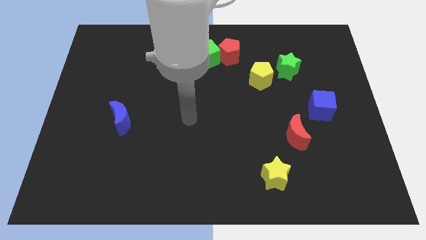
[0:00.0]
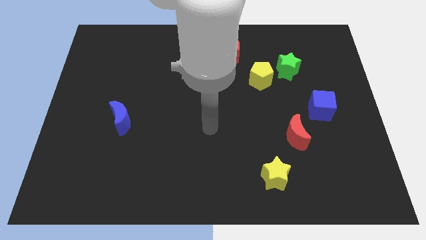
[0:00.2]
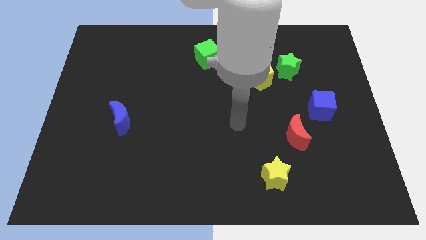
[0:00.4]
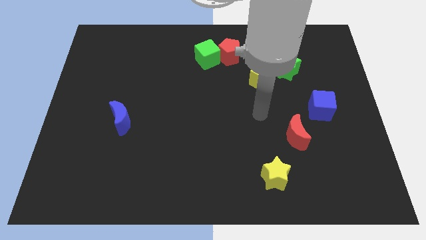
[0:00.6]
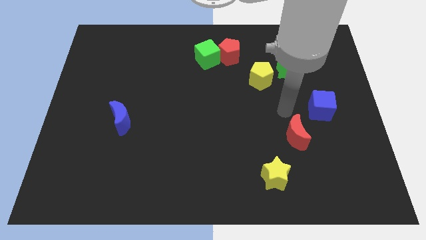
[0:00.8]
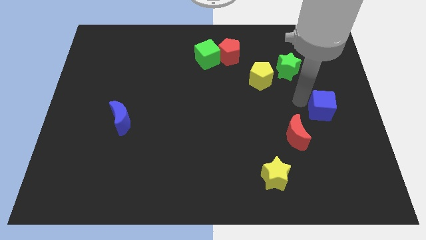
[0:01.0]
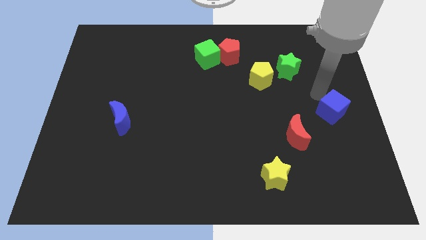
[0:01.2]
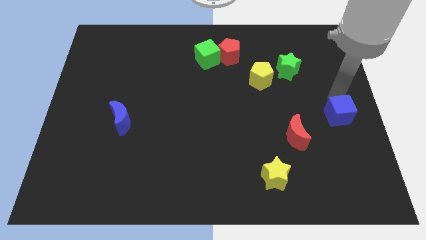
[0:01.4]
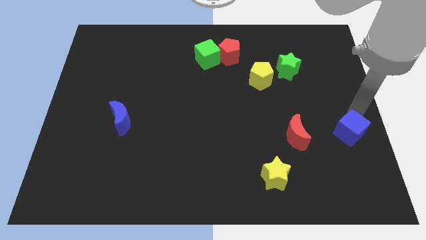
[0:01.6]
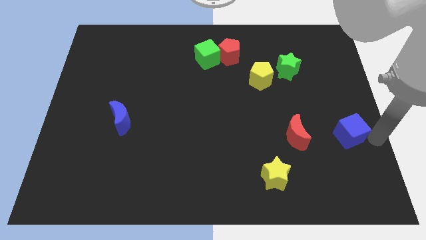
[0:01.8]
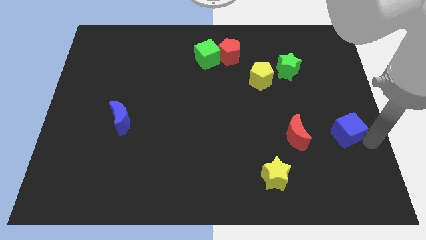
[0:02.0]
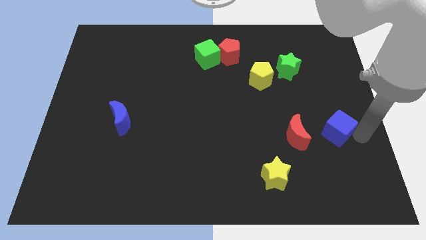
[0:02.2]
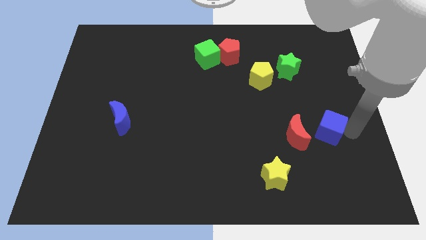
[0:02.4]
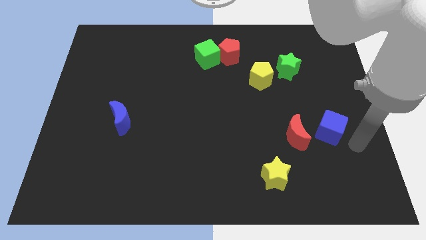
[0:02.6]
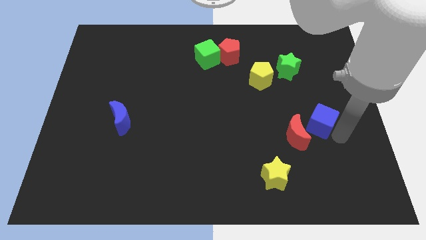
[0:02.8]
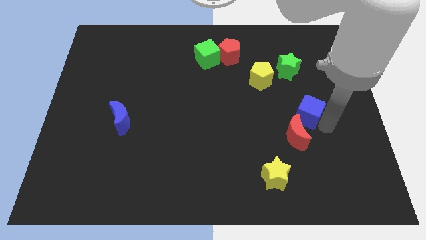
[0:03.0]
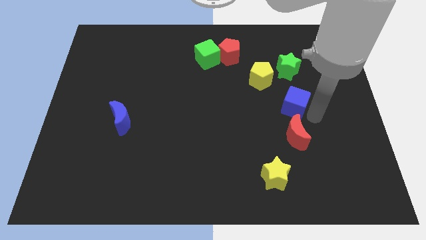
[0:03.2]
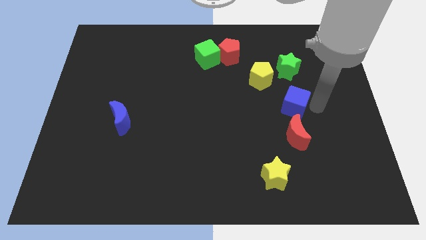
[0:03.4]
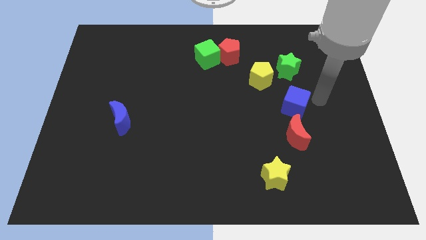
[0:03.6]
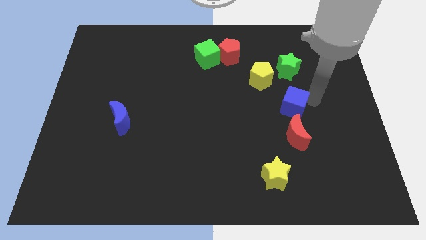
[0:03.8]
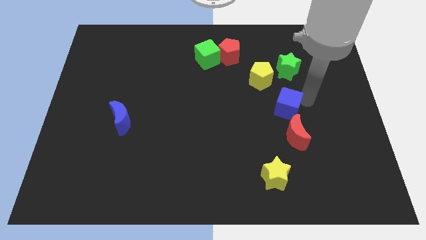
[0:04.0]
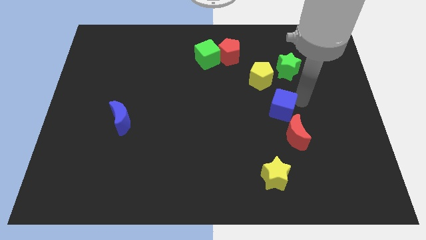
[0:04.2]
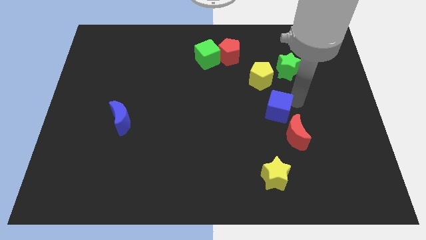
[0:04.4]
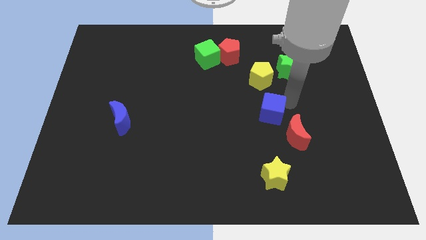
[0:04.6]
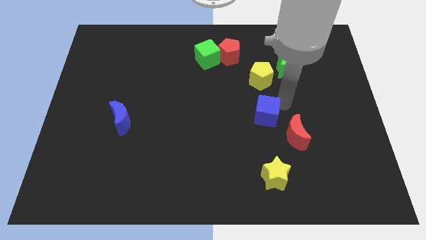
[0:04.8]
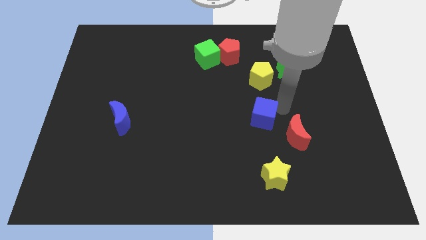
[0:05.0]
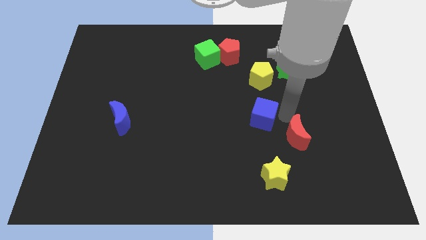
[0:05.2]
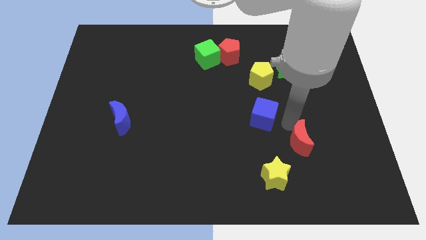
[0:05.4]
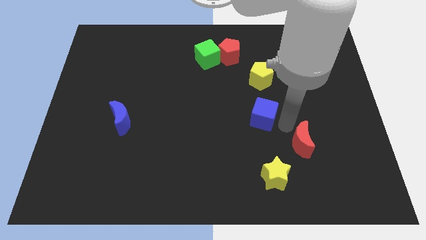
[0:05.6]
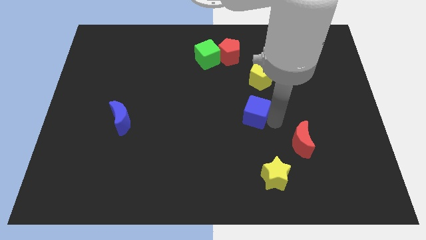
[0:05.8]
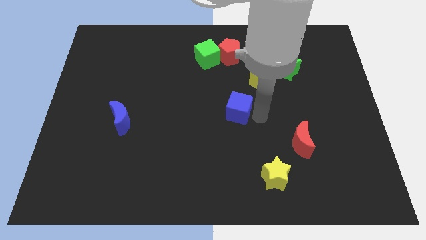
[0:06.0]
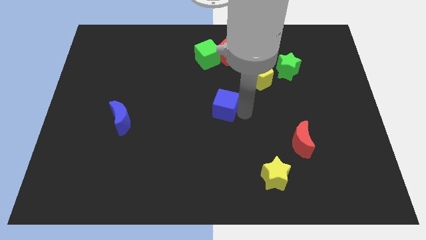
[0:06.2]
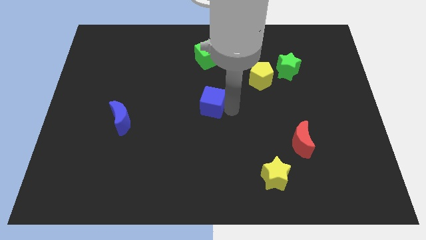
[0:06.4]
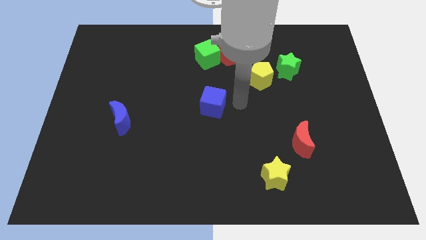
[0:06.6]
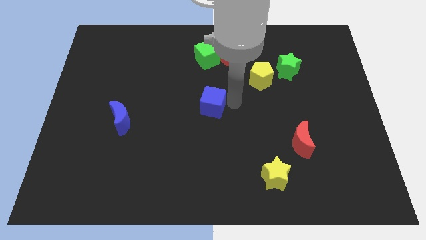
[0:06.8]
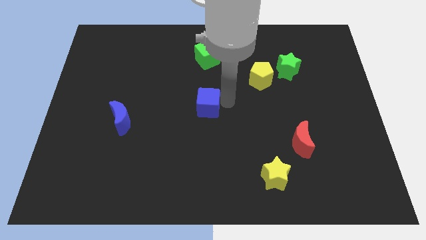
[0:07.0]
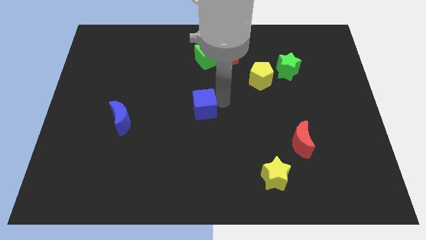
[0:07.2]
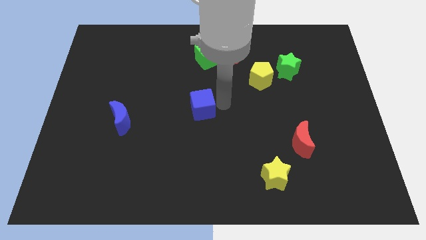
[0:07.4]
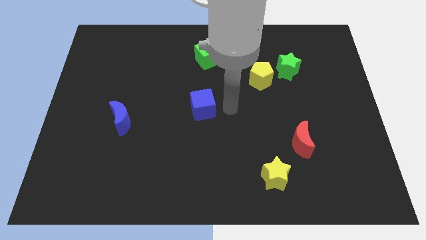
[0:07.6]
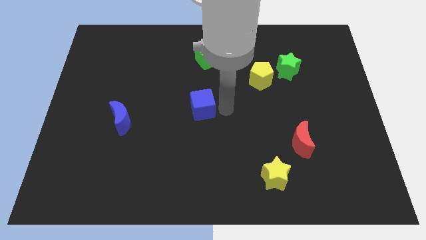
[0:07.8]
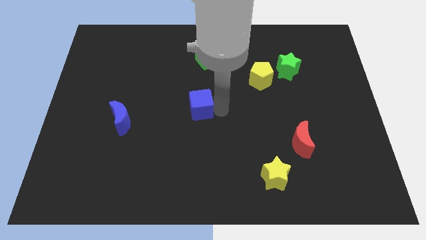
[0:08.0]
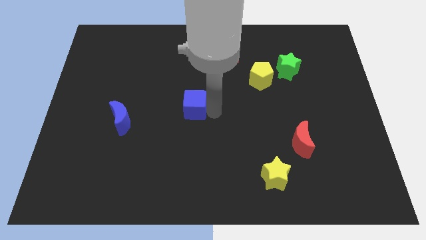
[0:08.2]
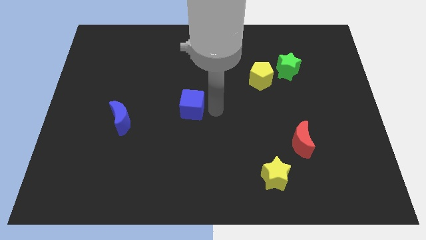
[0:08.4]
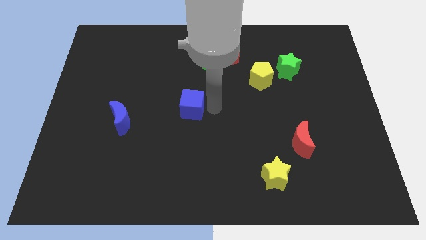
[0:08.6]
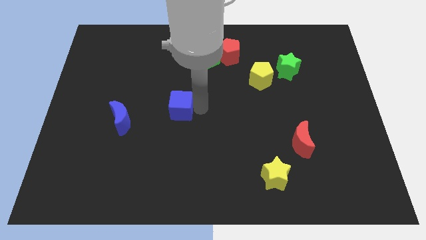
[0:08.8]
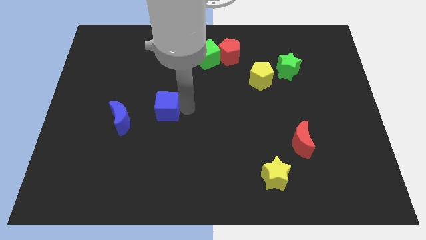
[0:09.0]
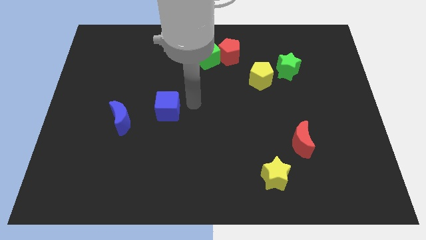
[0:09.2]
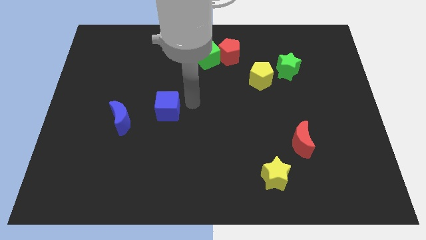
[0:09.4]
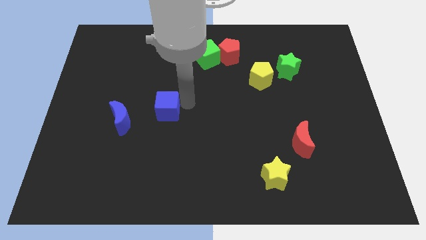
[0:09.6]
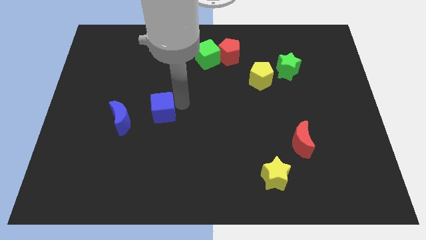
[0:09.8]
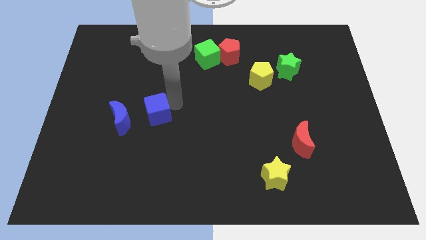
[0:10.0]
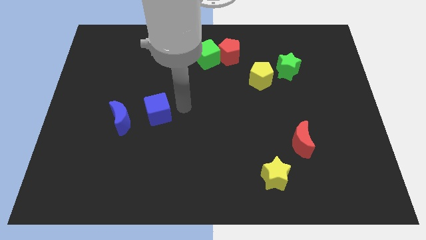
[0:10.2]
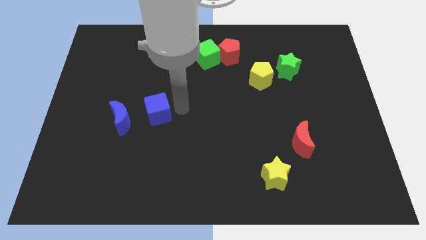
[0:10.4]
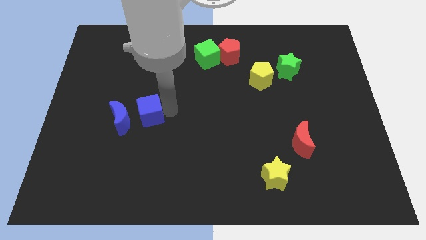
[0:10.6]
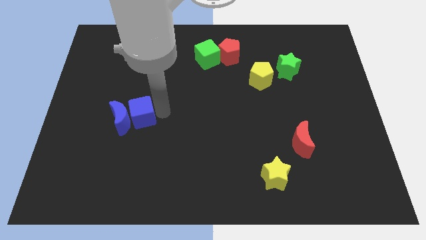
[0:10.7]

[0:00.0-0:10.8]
slide the blue cube to the blue moon

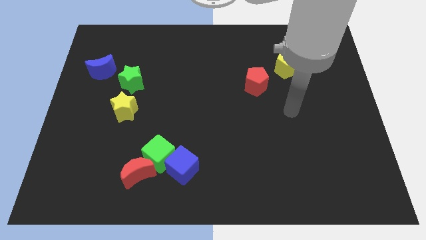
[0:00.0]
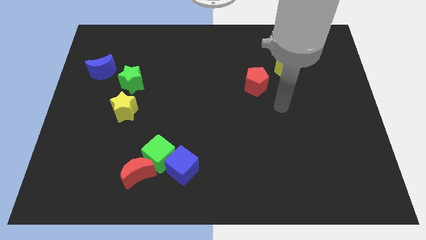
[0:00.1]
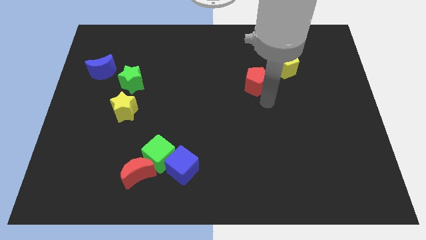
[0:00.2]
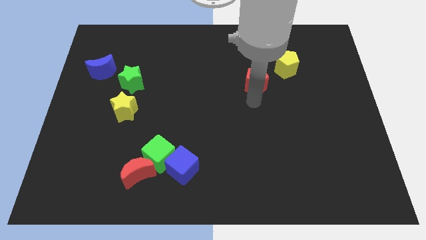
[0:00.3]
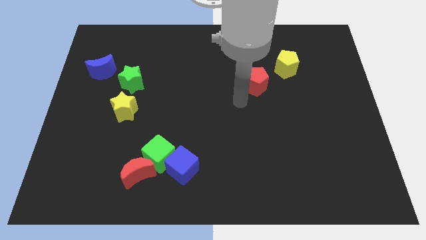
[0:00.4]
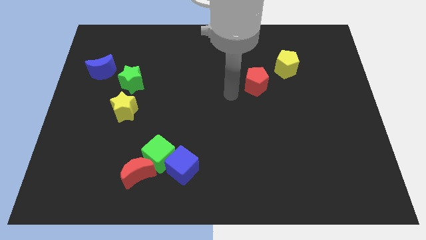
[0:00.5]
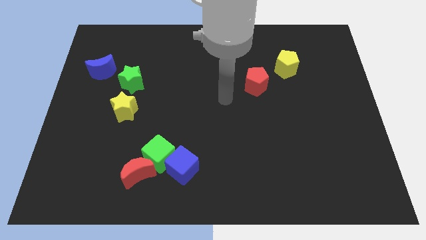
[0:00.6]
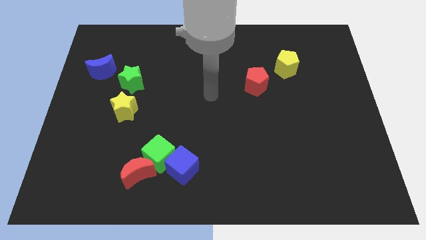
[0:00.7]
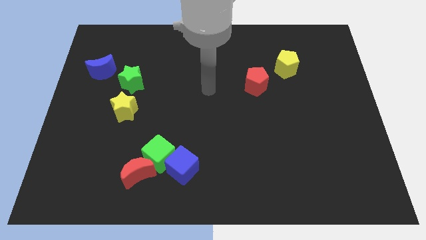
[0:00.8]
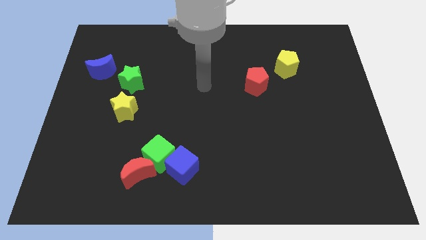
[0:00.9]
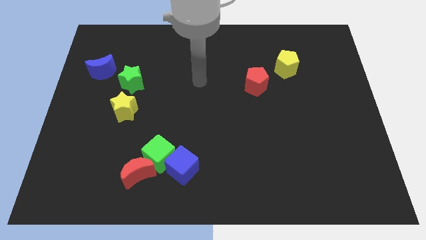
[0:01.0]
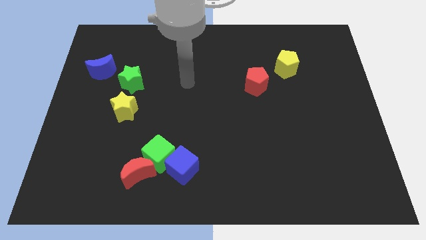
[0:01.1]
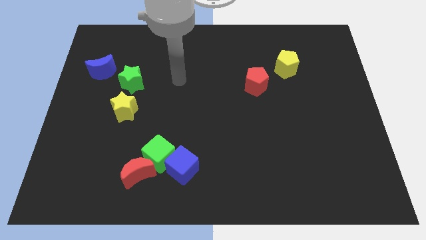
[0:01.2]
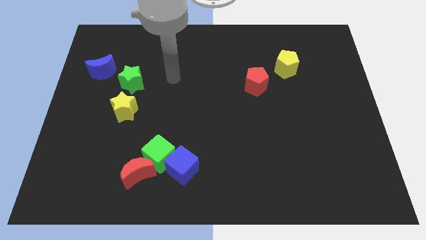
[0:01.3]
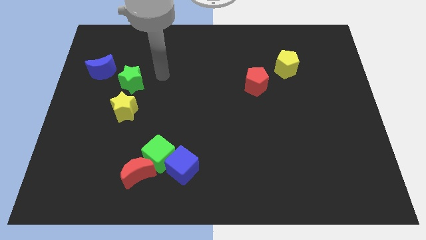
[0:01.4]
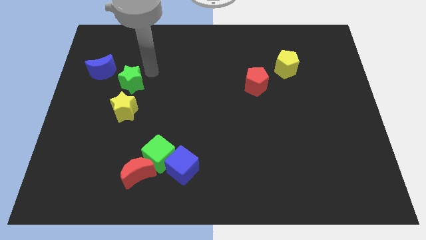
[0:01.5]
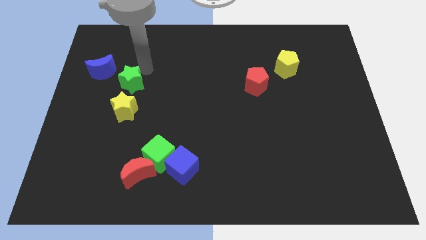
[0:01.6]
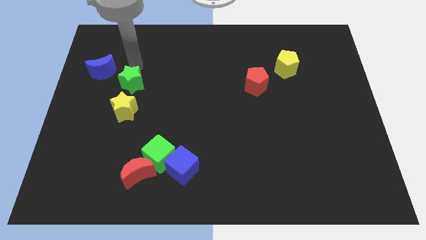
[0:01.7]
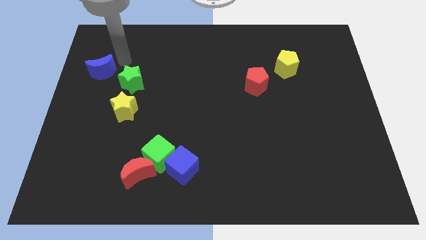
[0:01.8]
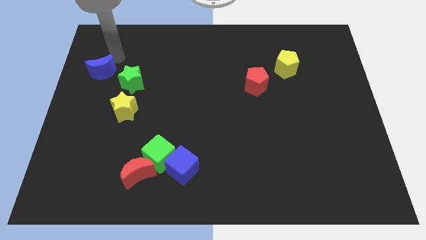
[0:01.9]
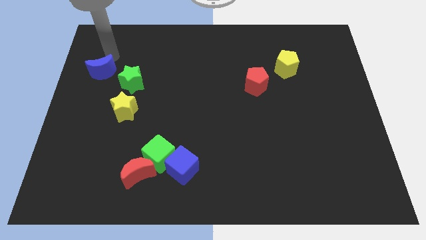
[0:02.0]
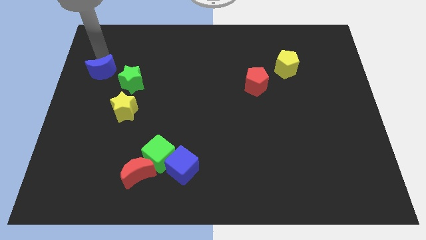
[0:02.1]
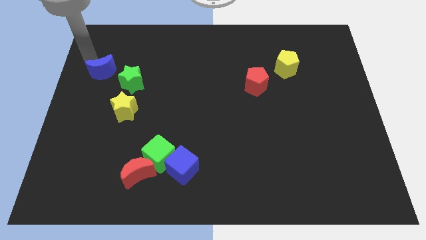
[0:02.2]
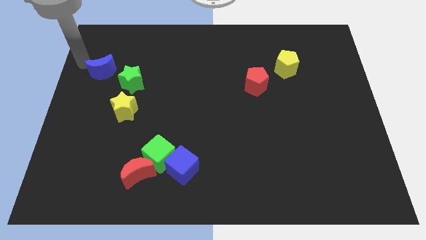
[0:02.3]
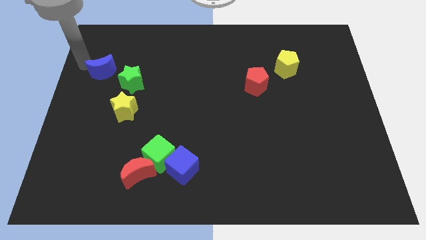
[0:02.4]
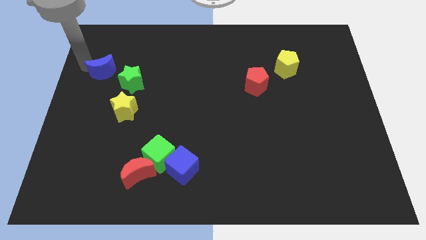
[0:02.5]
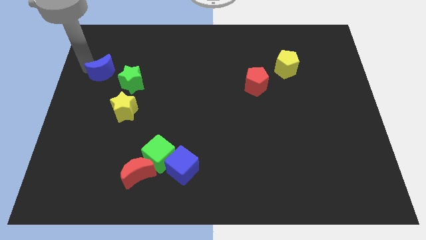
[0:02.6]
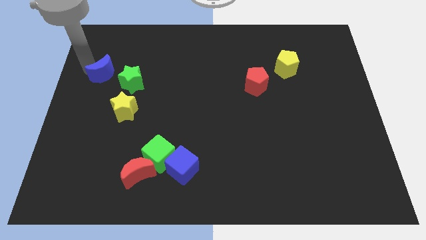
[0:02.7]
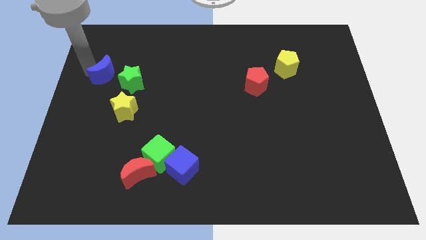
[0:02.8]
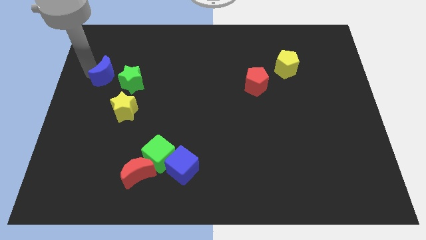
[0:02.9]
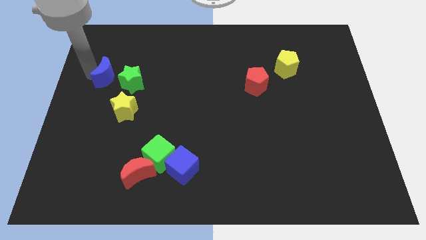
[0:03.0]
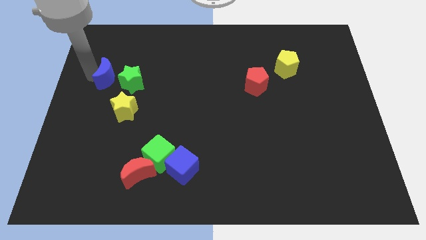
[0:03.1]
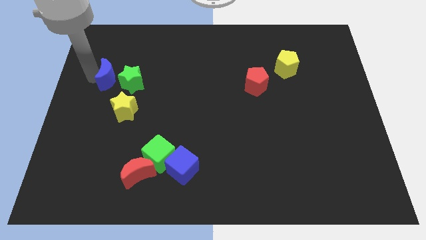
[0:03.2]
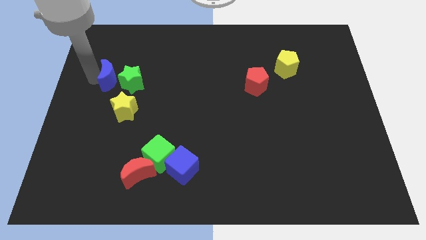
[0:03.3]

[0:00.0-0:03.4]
slide the blue moon towards the green star
